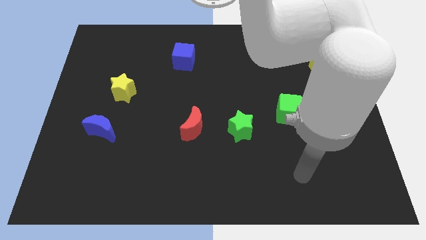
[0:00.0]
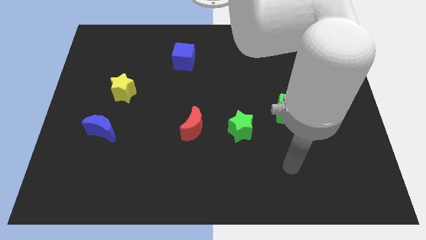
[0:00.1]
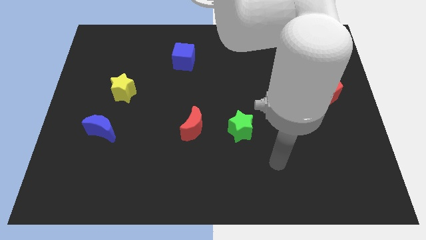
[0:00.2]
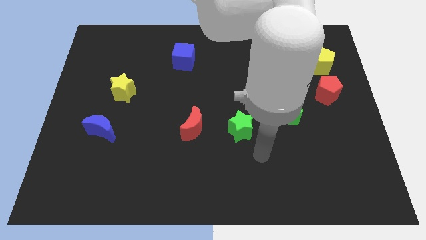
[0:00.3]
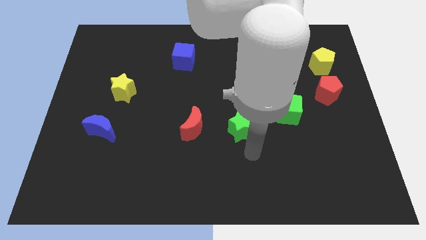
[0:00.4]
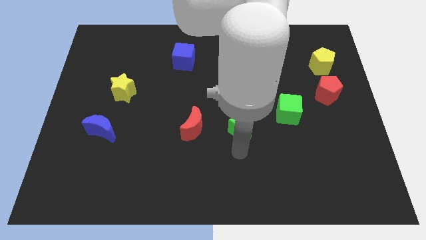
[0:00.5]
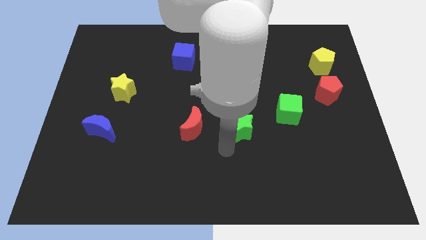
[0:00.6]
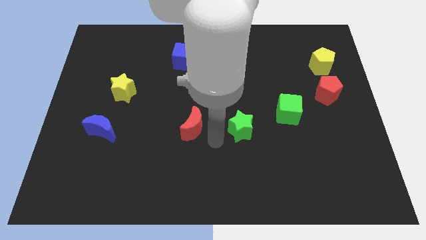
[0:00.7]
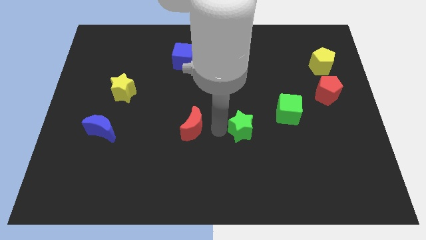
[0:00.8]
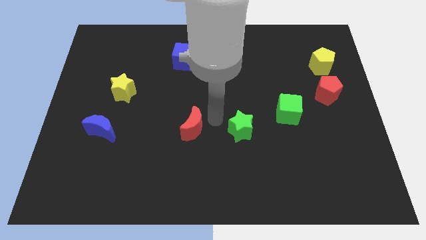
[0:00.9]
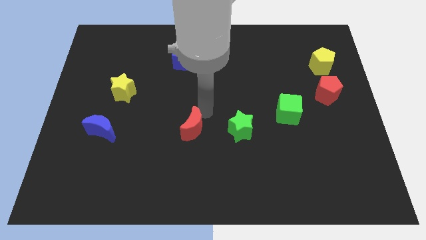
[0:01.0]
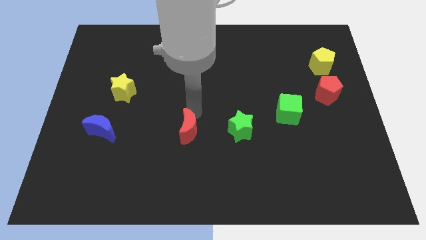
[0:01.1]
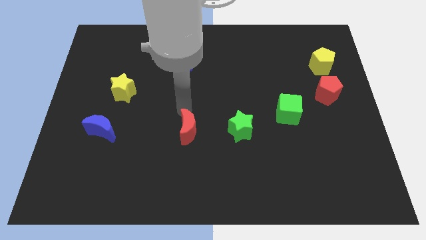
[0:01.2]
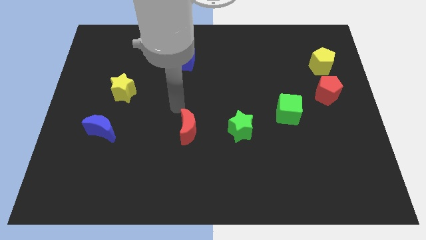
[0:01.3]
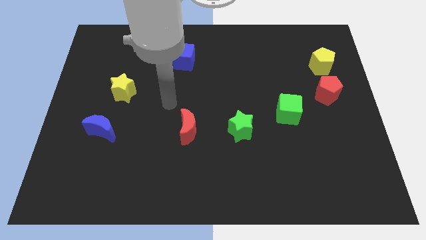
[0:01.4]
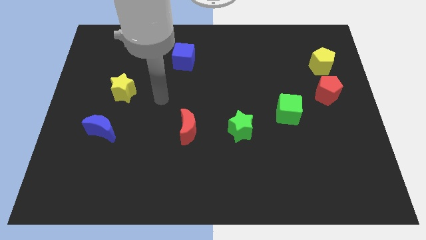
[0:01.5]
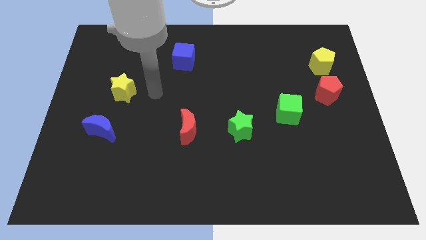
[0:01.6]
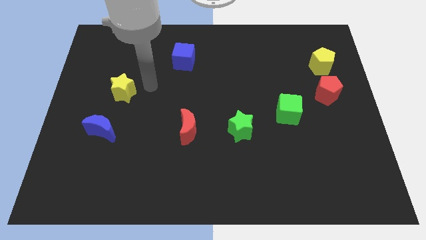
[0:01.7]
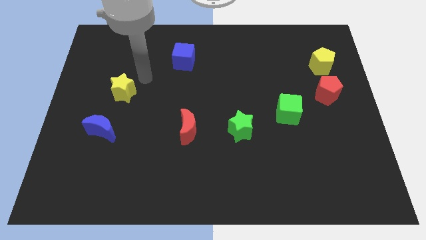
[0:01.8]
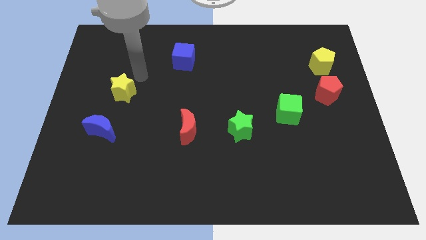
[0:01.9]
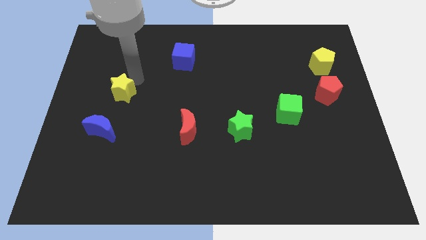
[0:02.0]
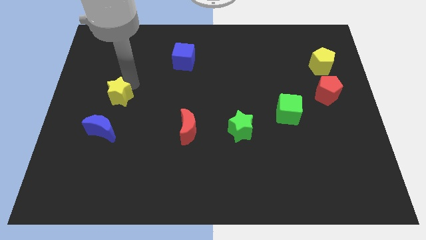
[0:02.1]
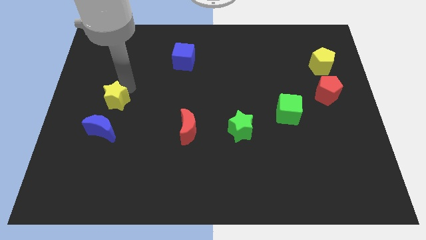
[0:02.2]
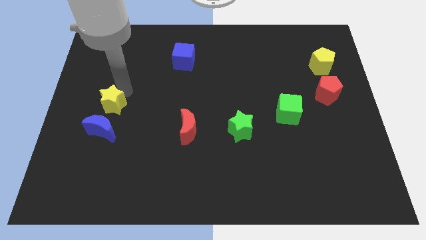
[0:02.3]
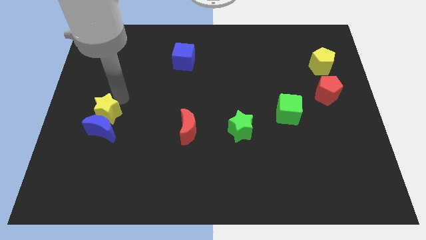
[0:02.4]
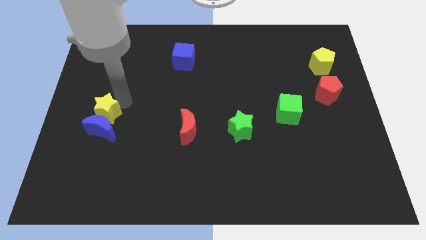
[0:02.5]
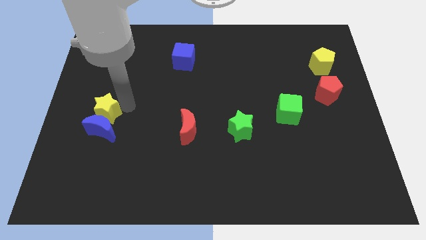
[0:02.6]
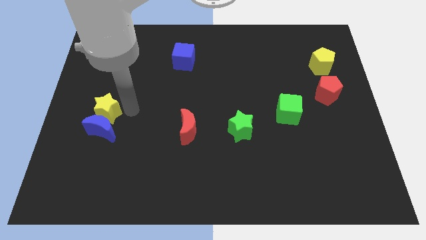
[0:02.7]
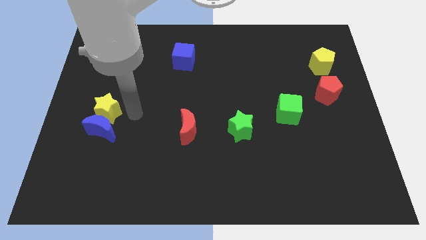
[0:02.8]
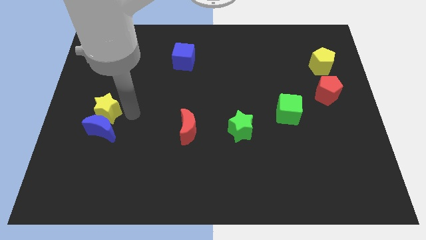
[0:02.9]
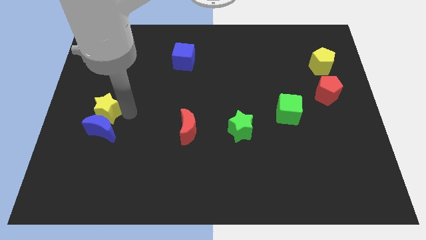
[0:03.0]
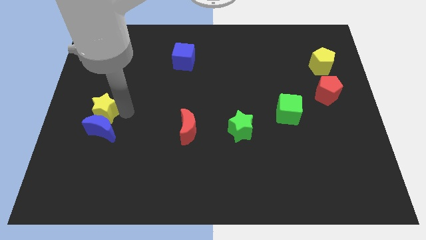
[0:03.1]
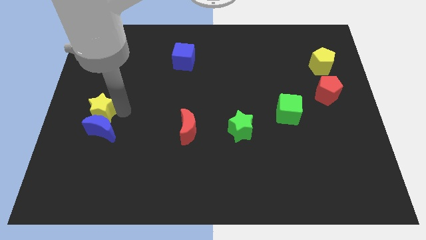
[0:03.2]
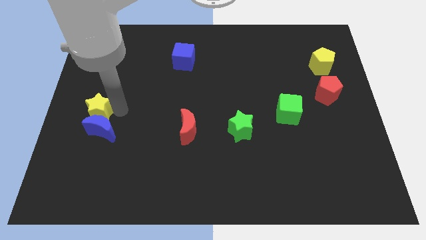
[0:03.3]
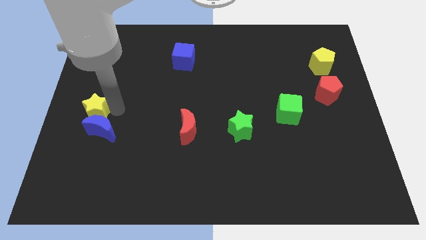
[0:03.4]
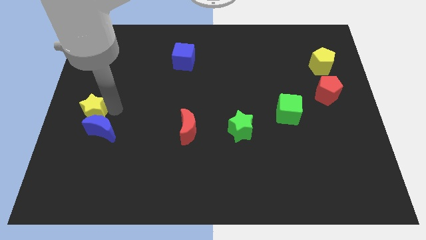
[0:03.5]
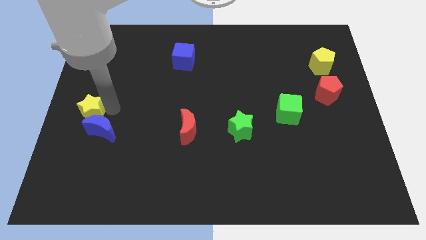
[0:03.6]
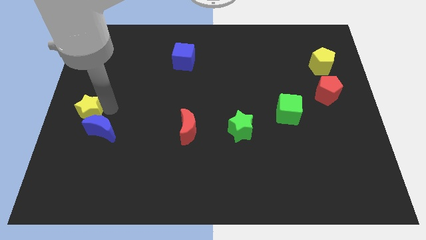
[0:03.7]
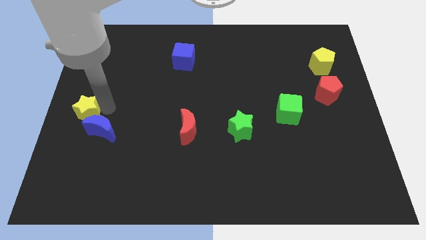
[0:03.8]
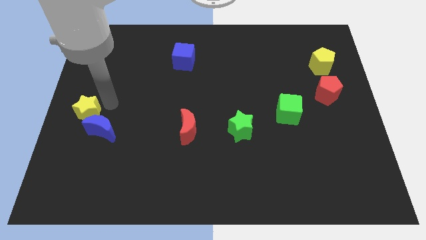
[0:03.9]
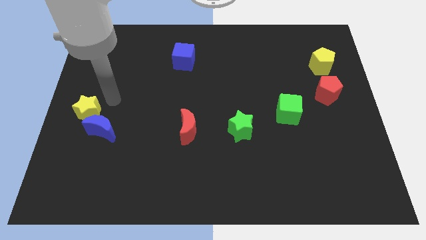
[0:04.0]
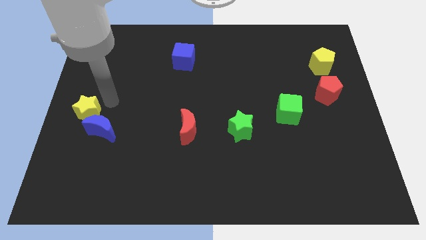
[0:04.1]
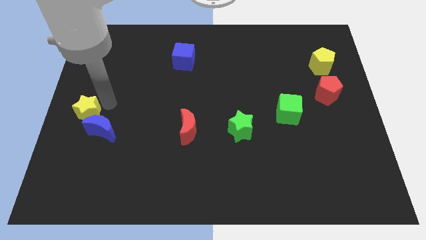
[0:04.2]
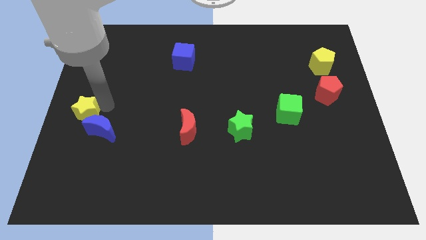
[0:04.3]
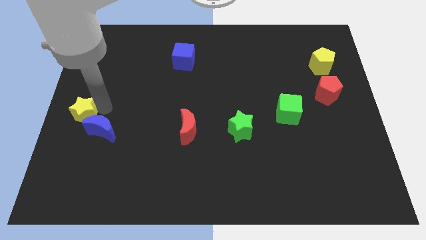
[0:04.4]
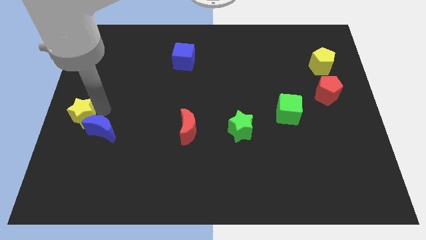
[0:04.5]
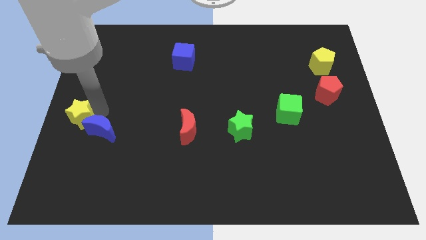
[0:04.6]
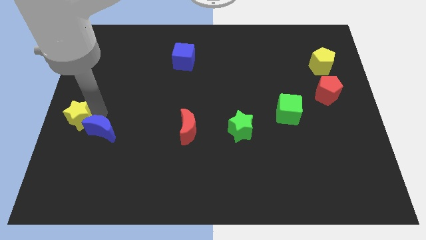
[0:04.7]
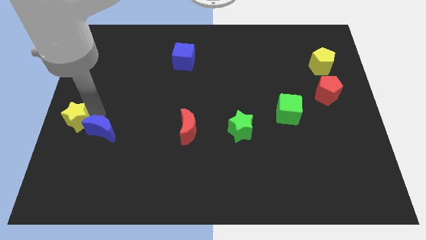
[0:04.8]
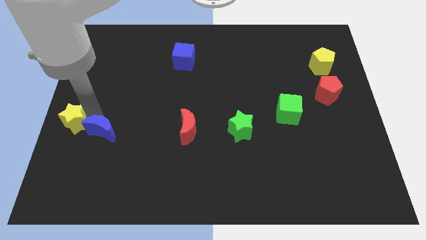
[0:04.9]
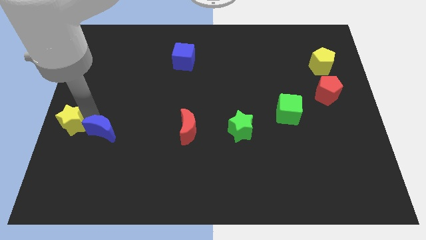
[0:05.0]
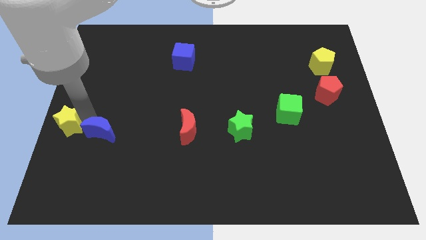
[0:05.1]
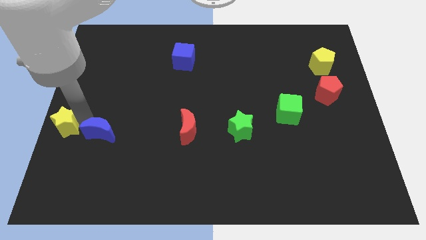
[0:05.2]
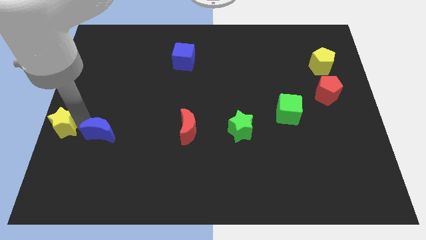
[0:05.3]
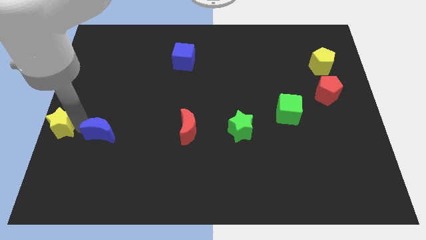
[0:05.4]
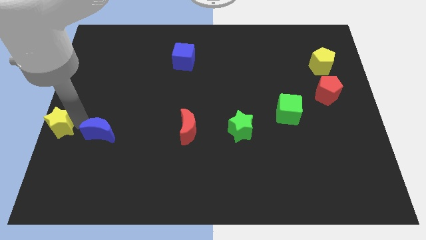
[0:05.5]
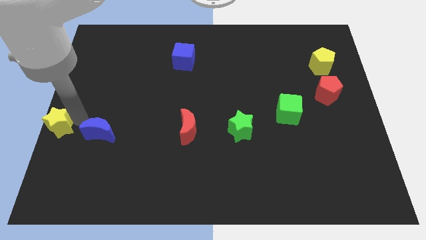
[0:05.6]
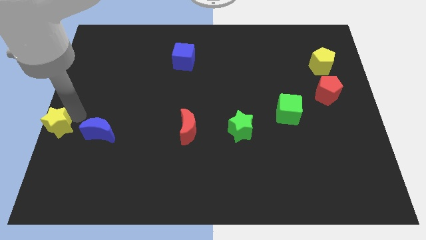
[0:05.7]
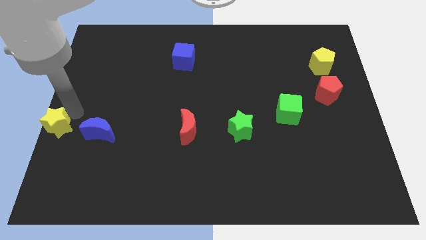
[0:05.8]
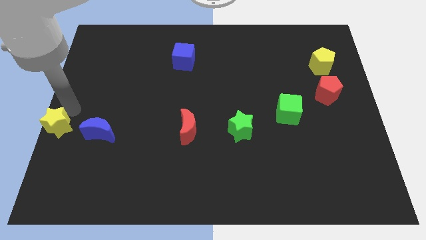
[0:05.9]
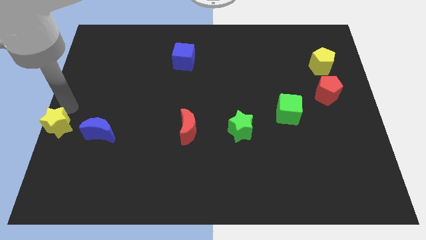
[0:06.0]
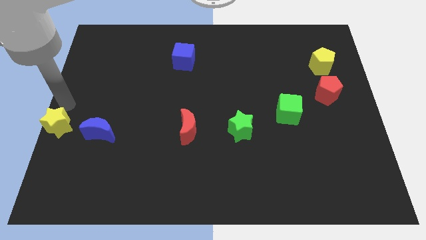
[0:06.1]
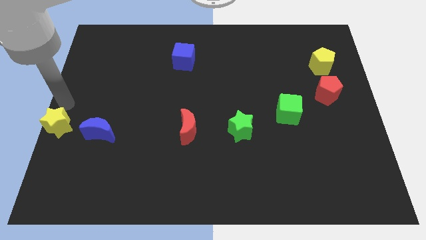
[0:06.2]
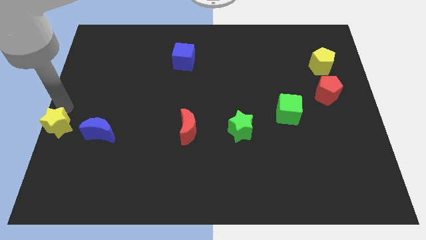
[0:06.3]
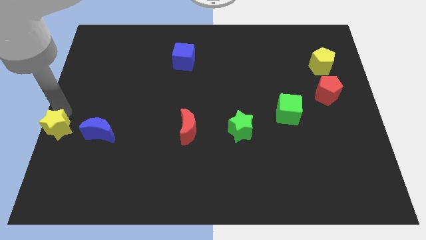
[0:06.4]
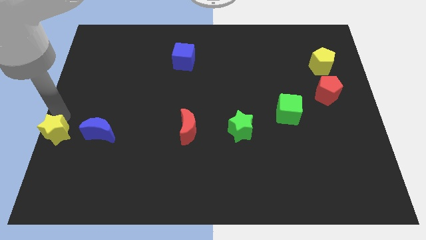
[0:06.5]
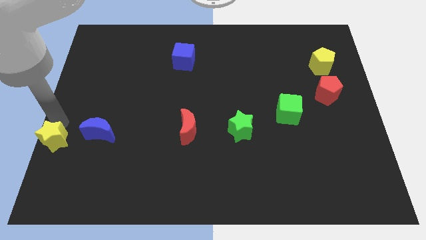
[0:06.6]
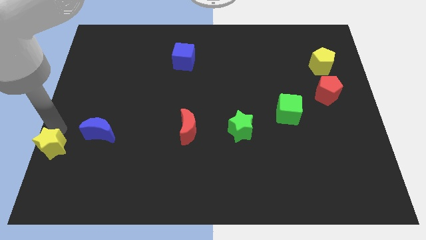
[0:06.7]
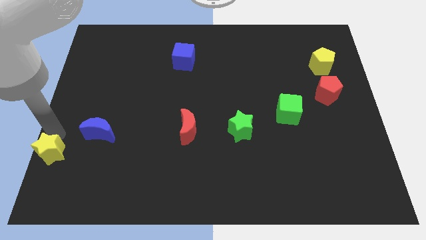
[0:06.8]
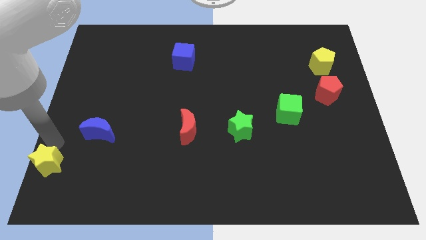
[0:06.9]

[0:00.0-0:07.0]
move the yellow star to the lower left corner
